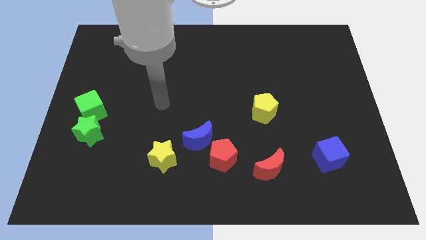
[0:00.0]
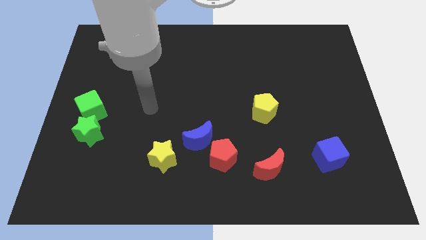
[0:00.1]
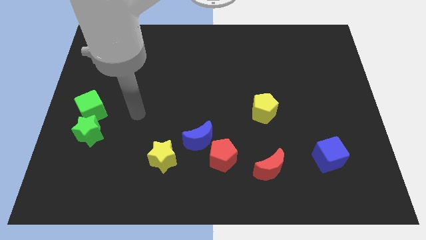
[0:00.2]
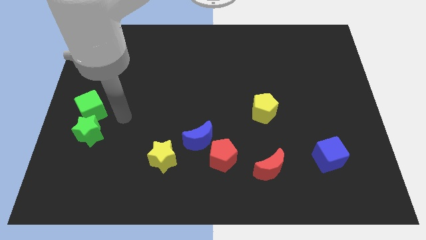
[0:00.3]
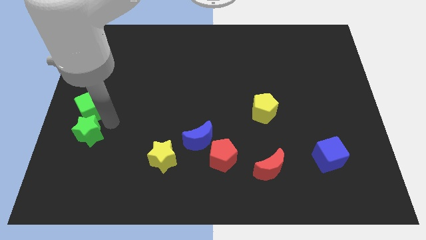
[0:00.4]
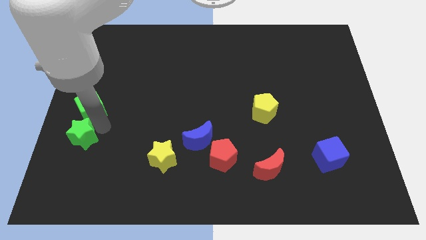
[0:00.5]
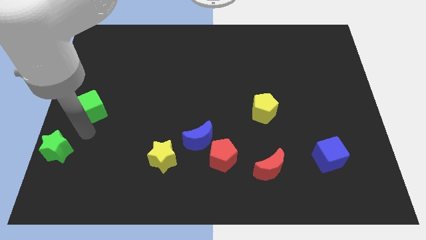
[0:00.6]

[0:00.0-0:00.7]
pull the green cube apart from the green star

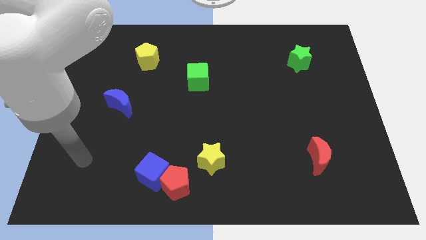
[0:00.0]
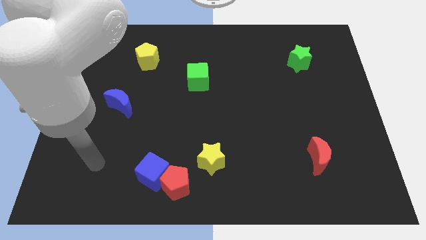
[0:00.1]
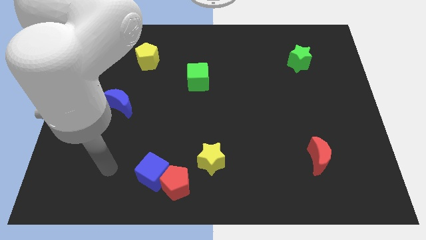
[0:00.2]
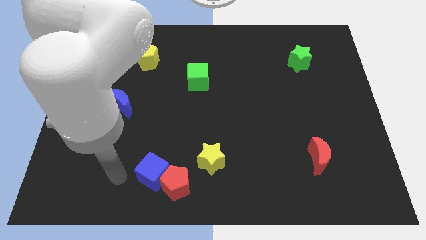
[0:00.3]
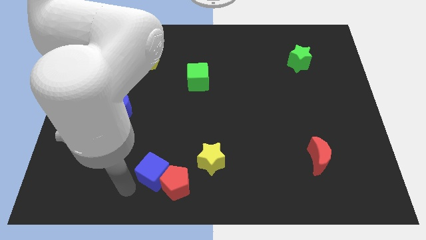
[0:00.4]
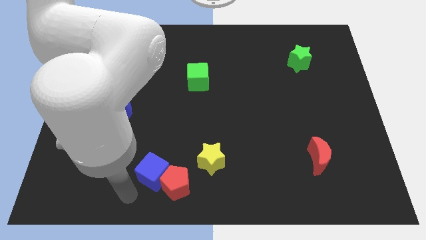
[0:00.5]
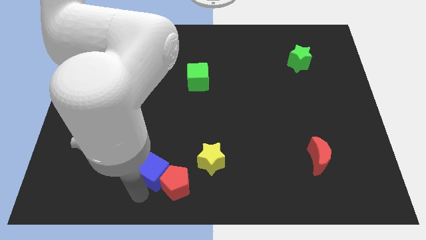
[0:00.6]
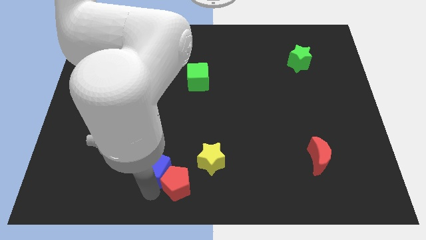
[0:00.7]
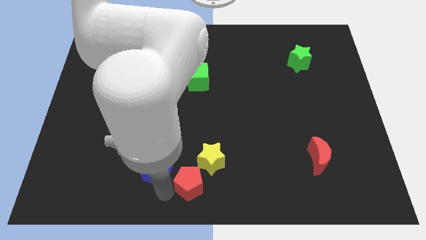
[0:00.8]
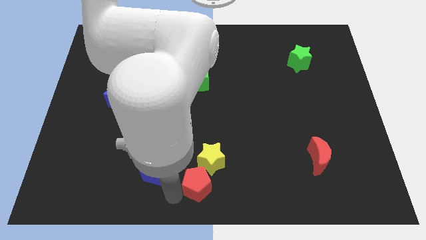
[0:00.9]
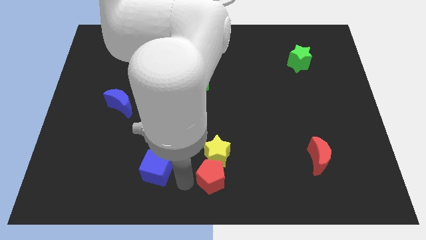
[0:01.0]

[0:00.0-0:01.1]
move the blue cube away from the red pentagon

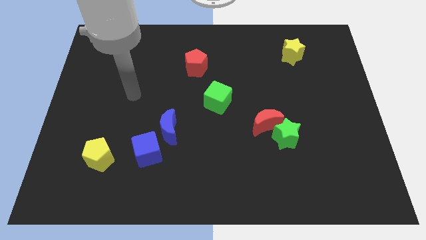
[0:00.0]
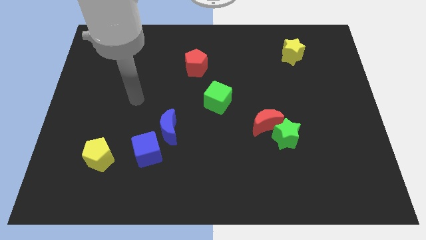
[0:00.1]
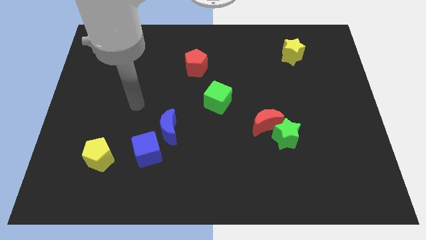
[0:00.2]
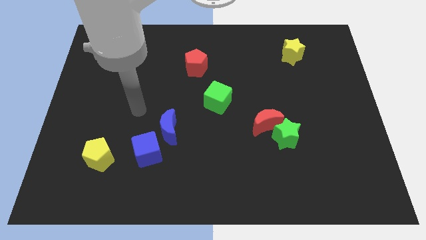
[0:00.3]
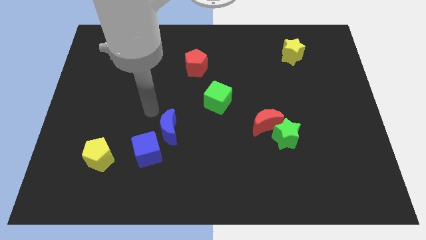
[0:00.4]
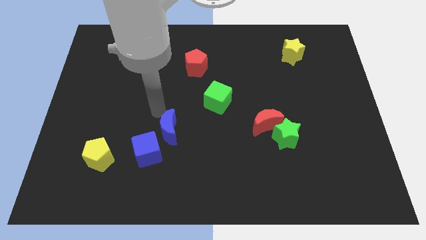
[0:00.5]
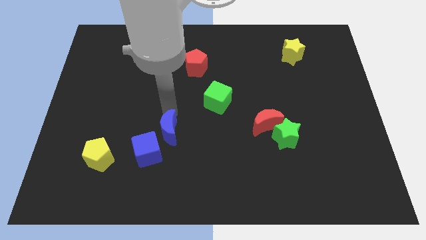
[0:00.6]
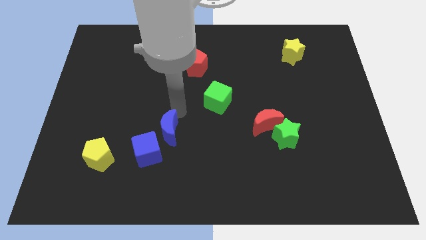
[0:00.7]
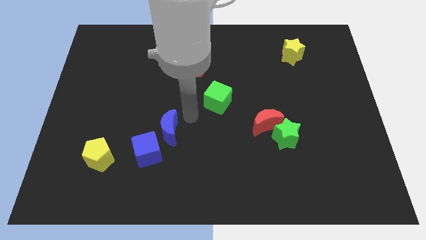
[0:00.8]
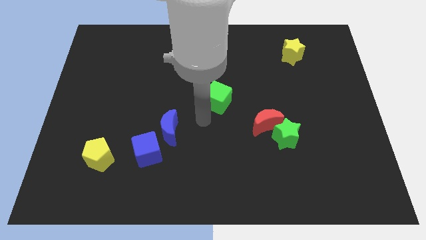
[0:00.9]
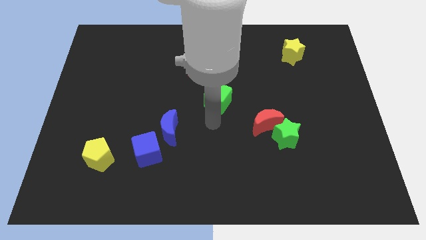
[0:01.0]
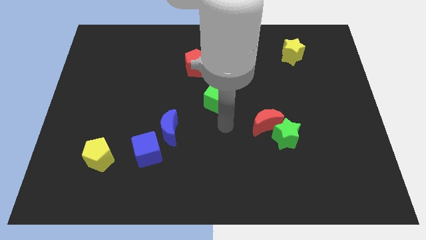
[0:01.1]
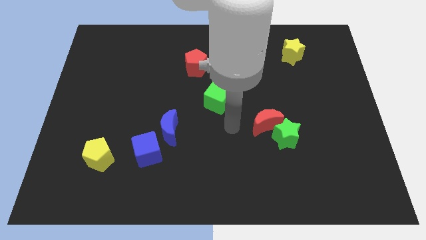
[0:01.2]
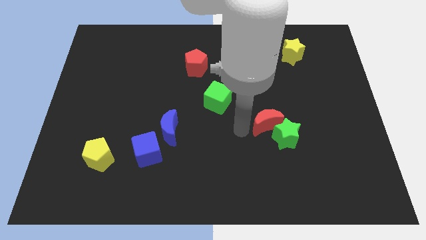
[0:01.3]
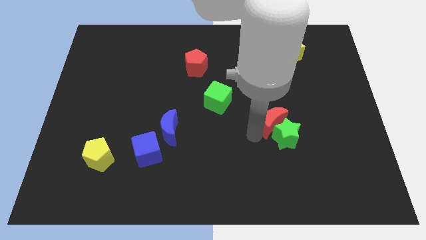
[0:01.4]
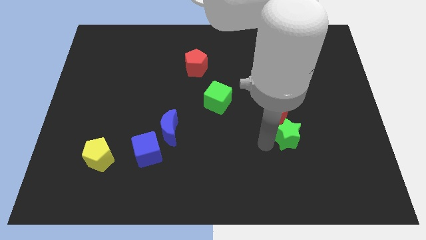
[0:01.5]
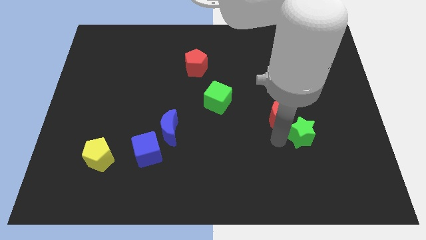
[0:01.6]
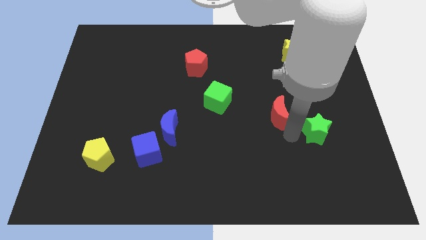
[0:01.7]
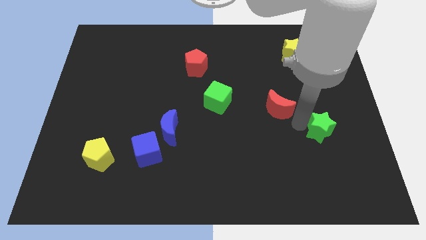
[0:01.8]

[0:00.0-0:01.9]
move the red moon away from the green star

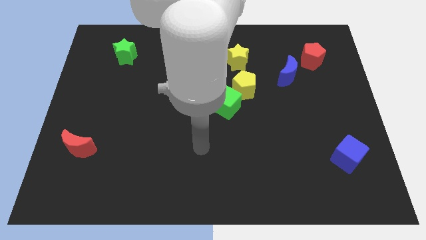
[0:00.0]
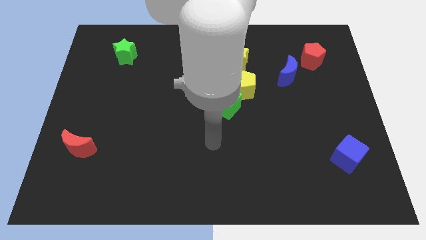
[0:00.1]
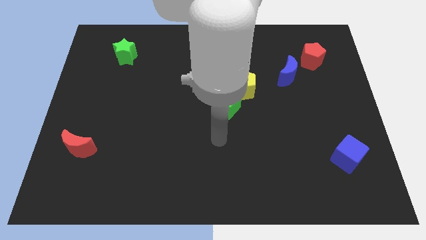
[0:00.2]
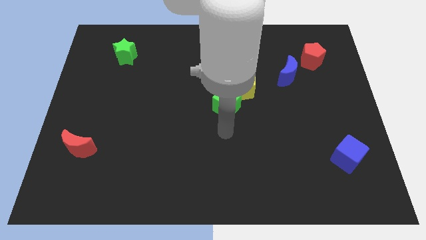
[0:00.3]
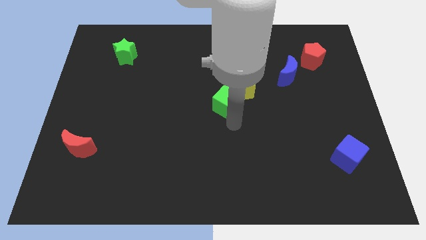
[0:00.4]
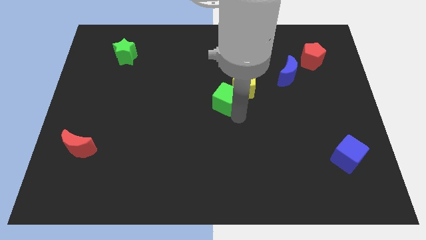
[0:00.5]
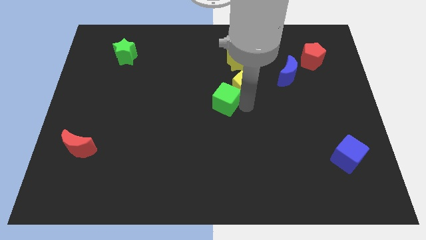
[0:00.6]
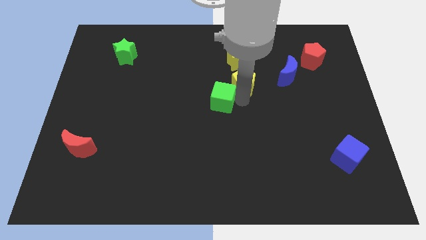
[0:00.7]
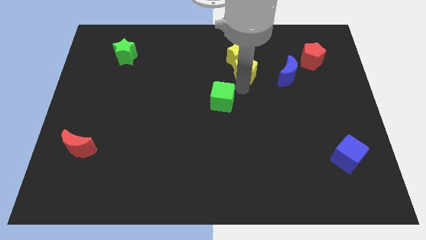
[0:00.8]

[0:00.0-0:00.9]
move the green cube away from the yellow pentagon

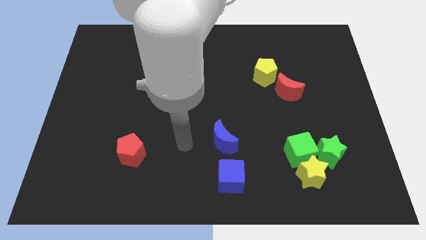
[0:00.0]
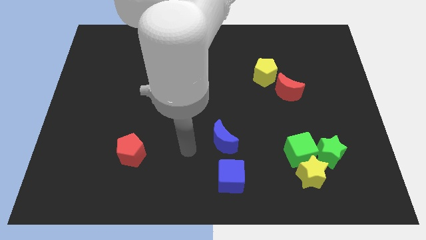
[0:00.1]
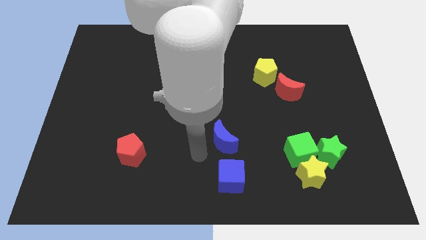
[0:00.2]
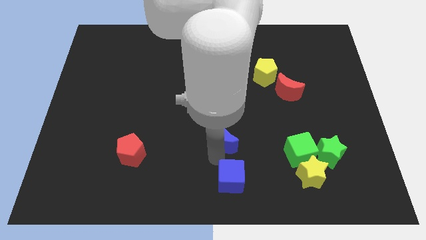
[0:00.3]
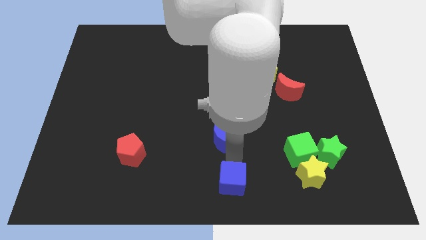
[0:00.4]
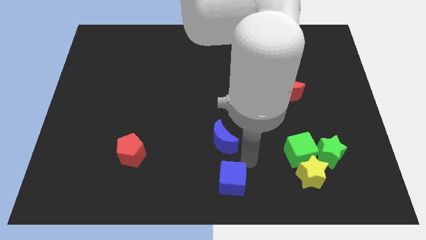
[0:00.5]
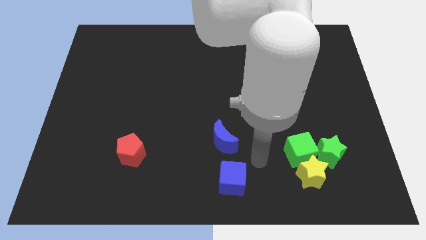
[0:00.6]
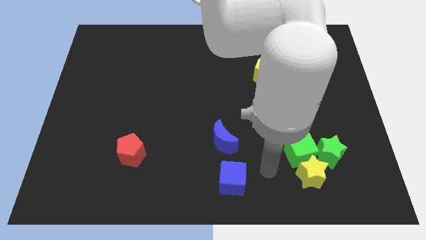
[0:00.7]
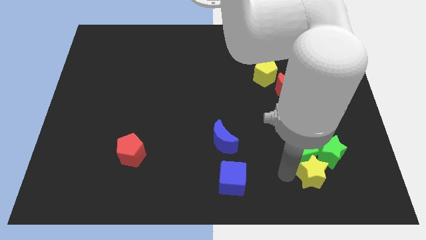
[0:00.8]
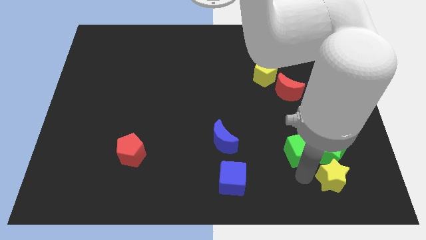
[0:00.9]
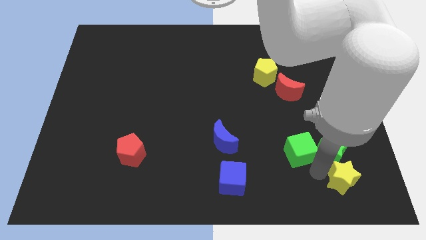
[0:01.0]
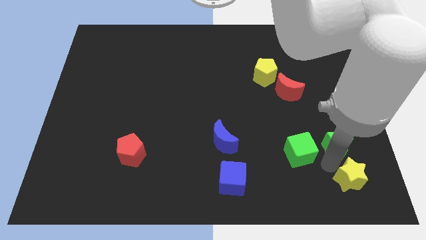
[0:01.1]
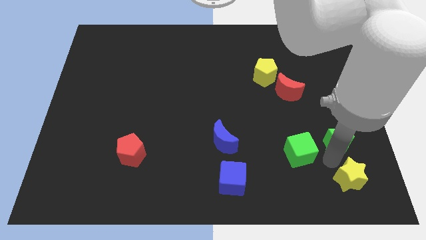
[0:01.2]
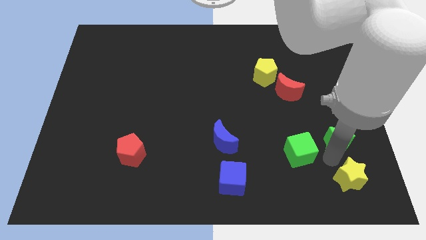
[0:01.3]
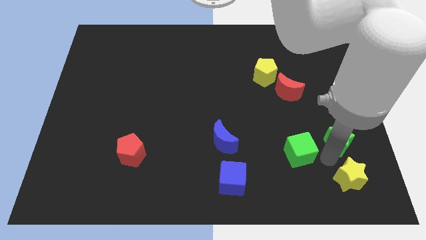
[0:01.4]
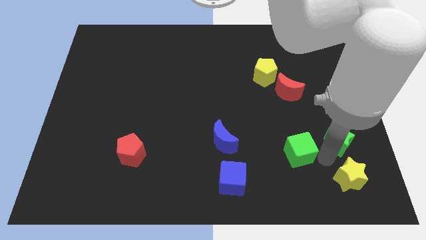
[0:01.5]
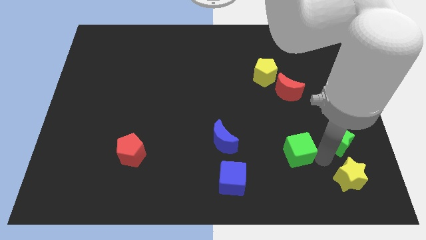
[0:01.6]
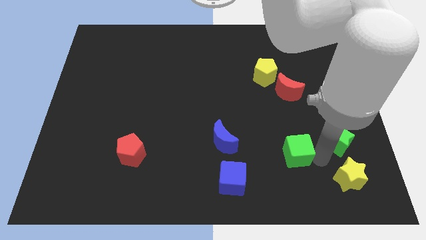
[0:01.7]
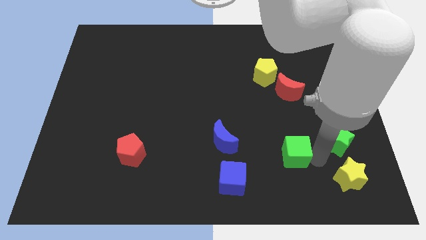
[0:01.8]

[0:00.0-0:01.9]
pull the green cube apart from the yellow star and green star

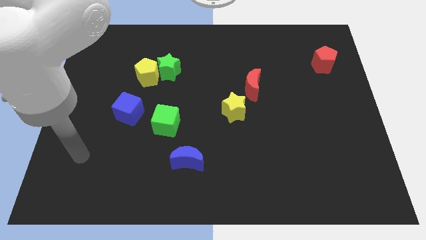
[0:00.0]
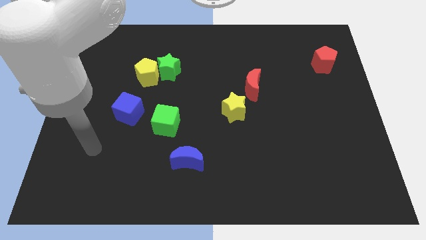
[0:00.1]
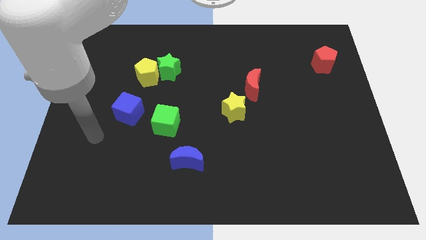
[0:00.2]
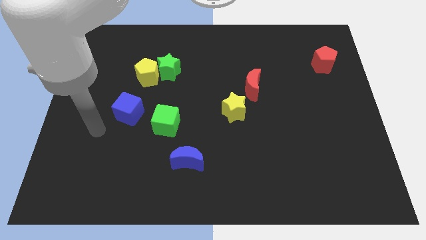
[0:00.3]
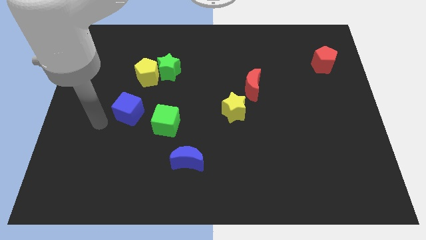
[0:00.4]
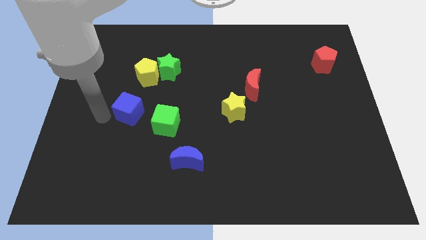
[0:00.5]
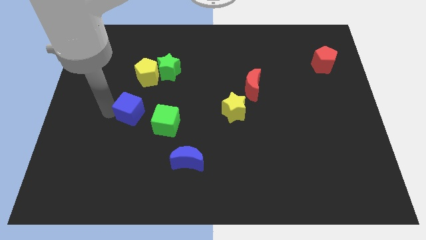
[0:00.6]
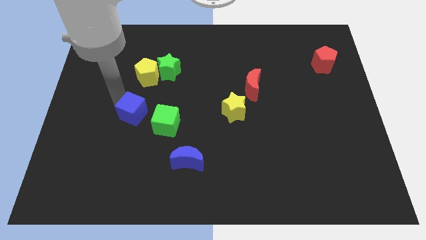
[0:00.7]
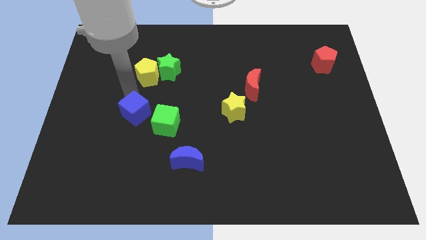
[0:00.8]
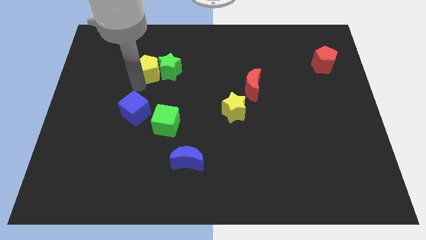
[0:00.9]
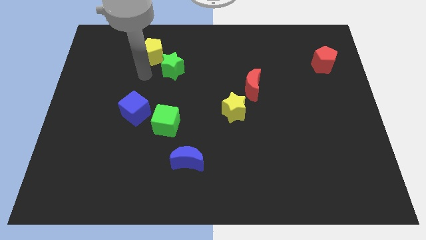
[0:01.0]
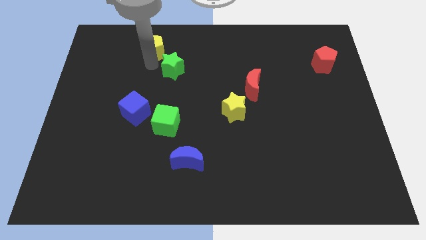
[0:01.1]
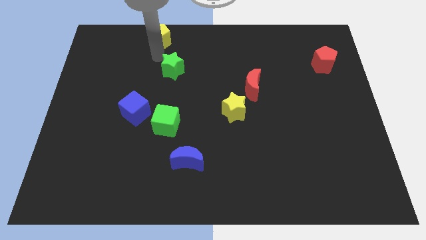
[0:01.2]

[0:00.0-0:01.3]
separate the green star from the yellow pentagon

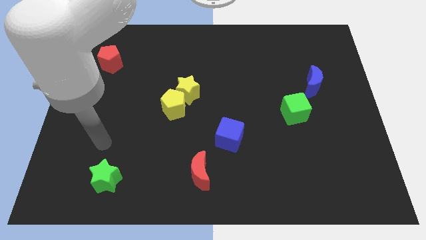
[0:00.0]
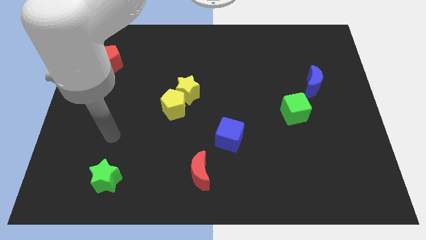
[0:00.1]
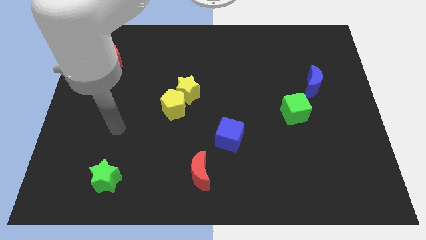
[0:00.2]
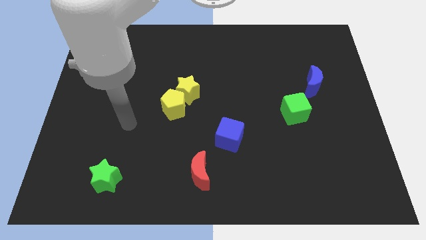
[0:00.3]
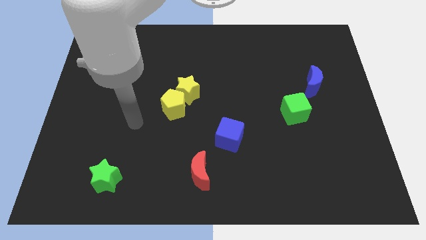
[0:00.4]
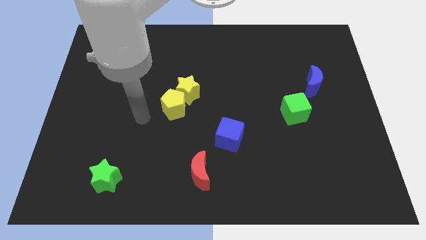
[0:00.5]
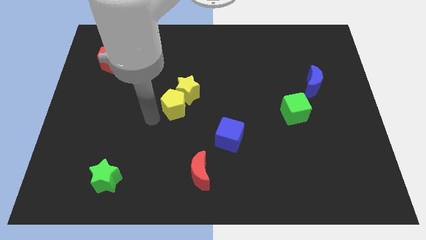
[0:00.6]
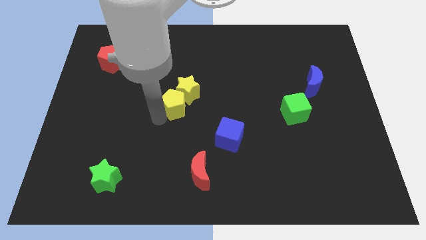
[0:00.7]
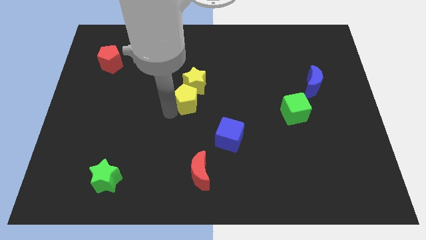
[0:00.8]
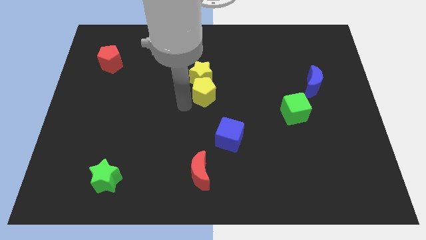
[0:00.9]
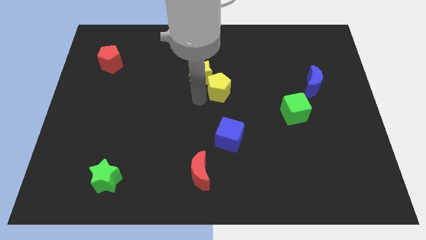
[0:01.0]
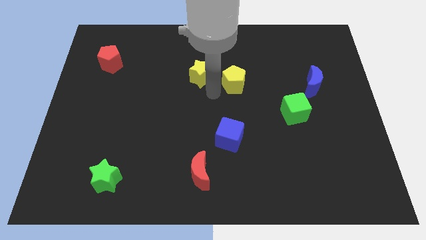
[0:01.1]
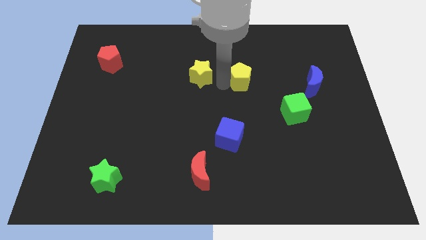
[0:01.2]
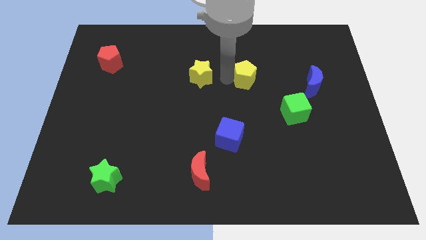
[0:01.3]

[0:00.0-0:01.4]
move the yellow star away from the yellow pentagon

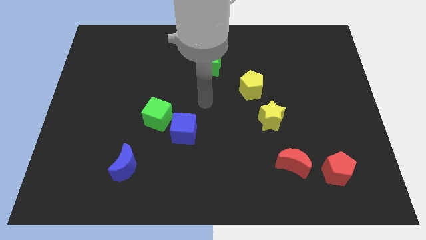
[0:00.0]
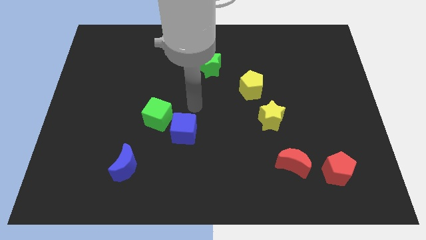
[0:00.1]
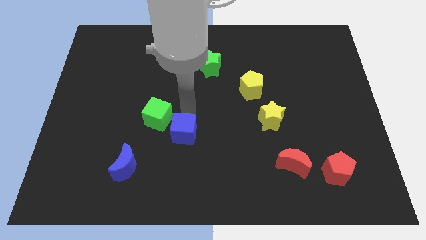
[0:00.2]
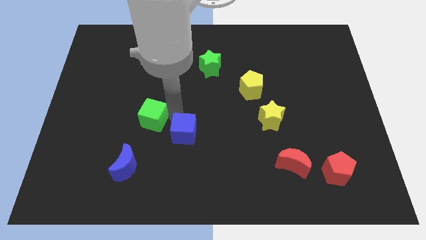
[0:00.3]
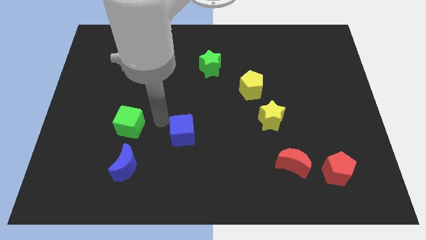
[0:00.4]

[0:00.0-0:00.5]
separate the blue cube from the green cube
